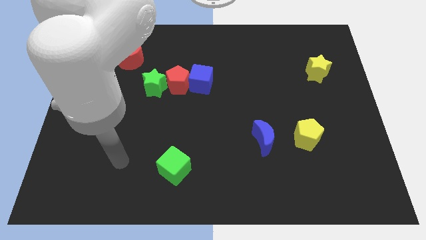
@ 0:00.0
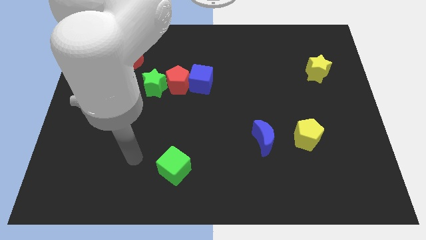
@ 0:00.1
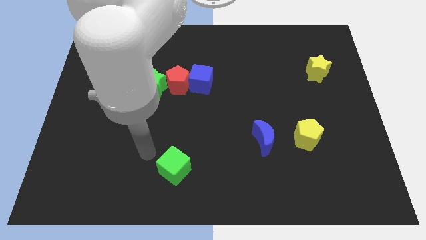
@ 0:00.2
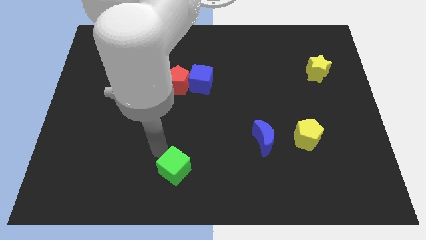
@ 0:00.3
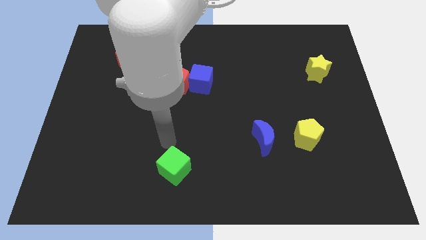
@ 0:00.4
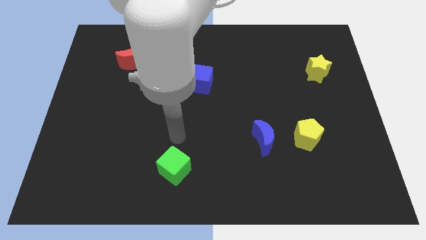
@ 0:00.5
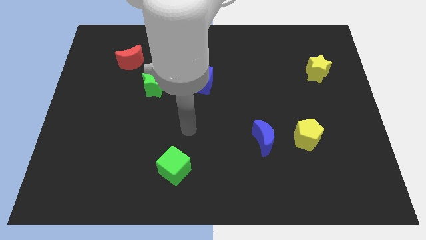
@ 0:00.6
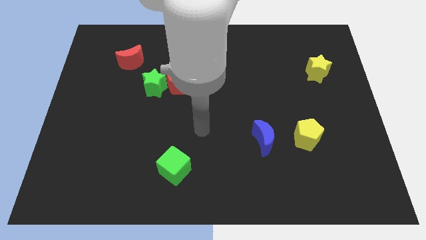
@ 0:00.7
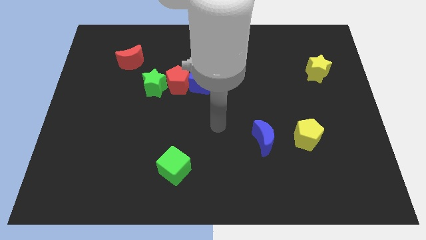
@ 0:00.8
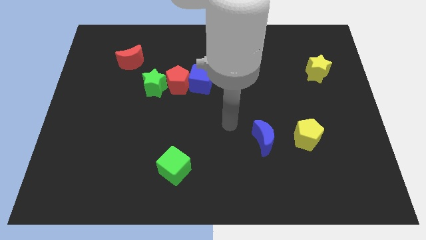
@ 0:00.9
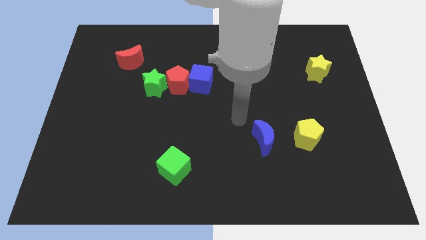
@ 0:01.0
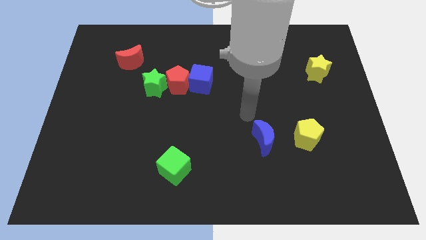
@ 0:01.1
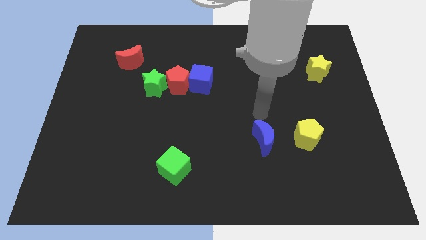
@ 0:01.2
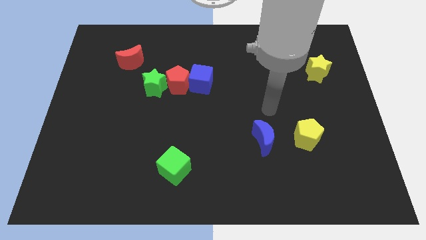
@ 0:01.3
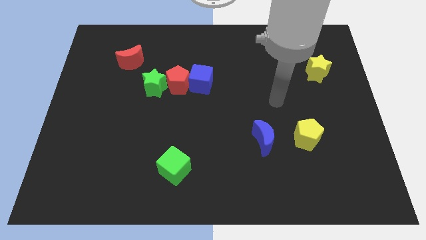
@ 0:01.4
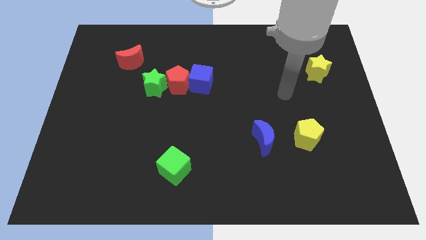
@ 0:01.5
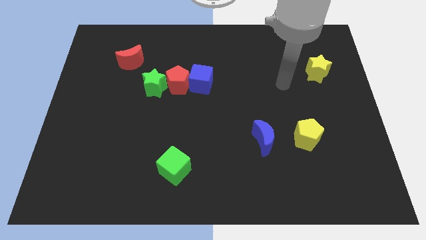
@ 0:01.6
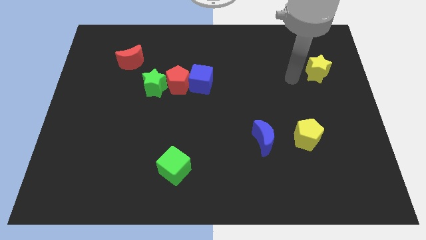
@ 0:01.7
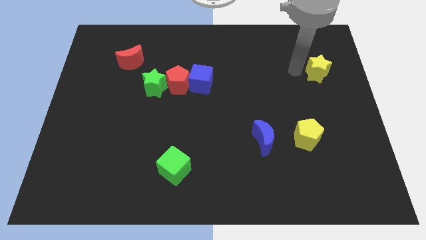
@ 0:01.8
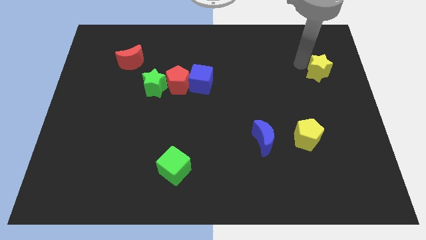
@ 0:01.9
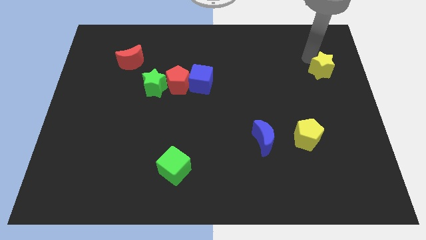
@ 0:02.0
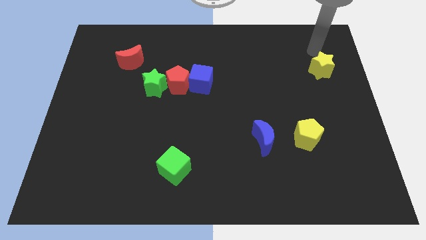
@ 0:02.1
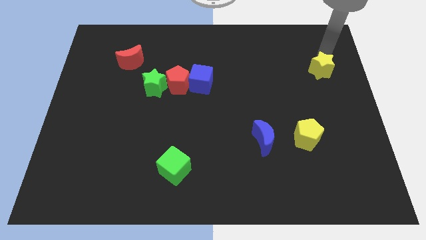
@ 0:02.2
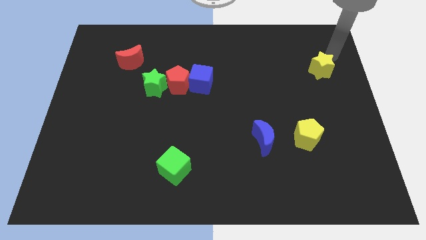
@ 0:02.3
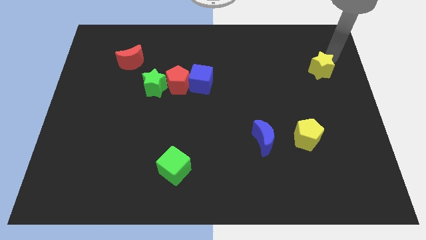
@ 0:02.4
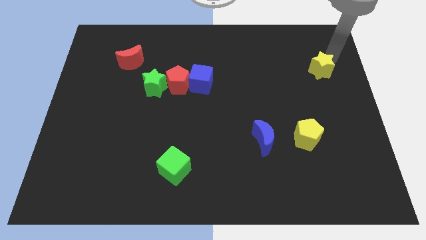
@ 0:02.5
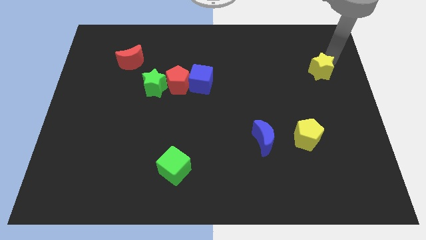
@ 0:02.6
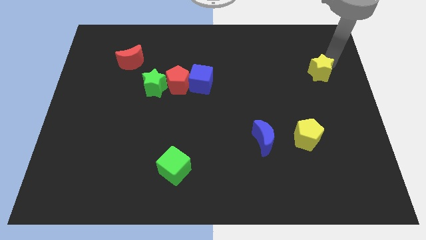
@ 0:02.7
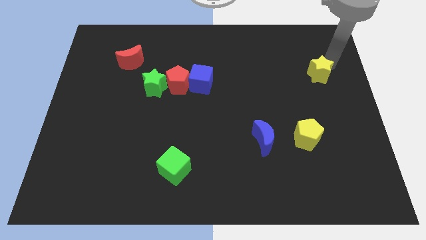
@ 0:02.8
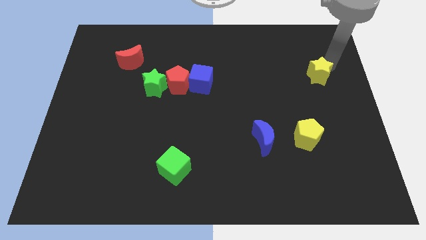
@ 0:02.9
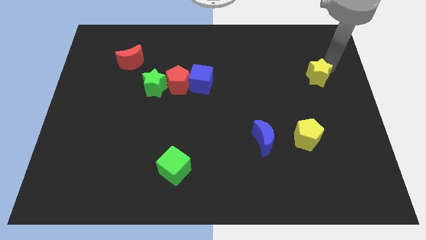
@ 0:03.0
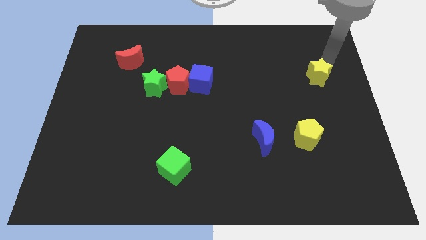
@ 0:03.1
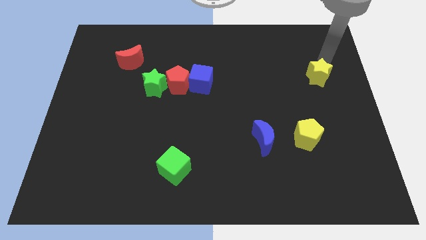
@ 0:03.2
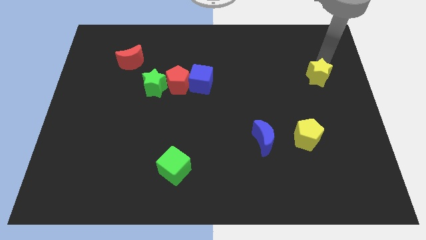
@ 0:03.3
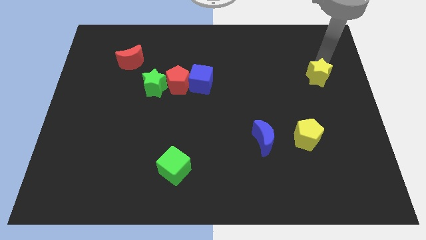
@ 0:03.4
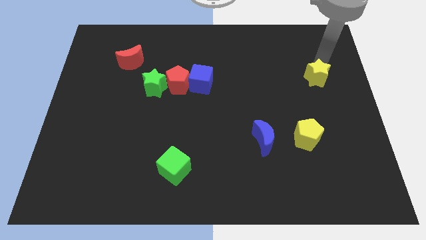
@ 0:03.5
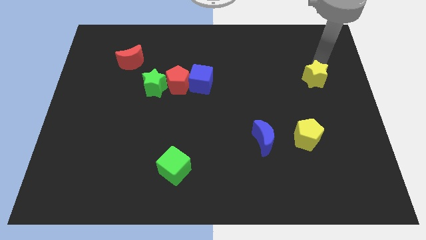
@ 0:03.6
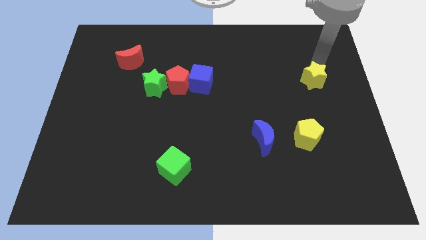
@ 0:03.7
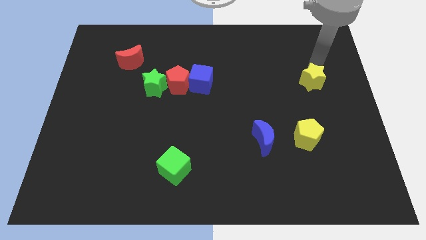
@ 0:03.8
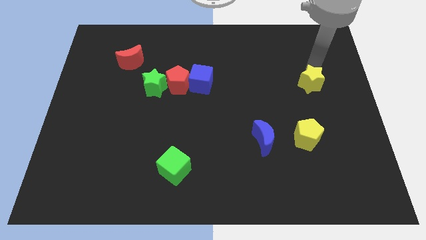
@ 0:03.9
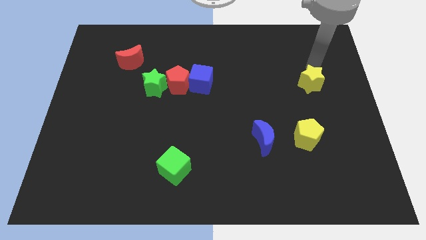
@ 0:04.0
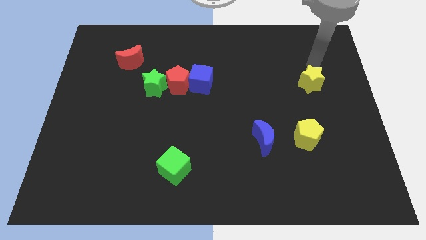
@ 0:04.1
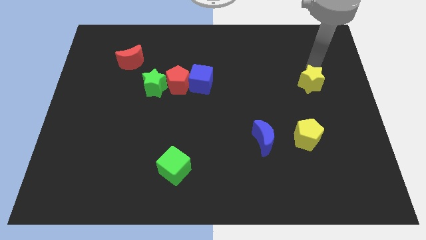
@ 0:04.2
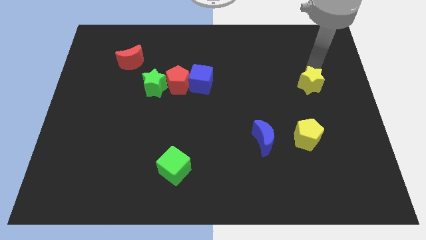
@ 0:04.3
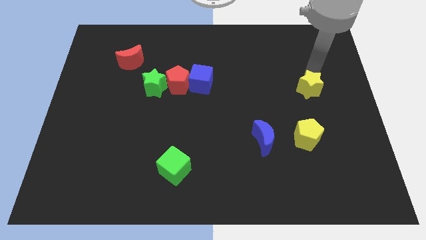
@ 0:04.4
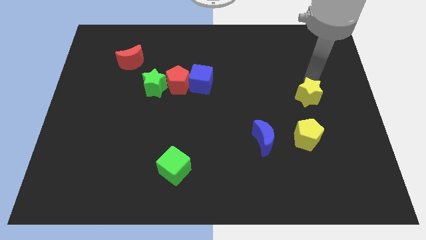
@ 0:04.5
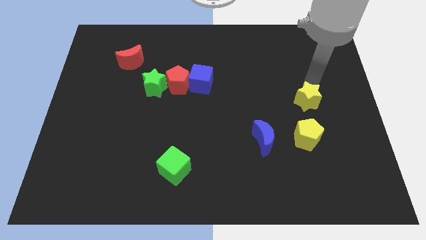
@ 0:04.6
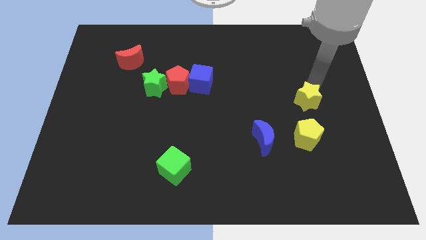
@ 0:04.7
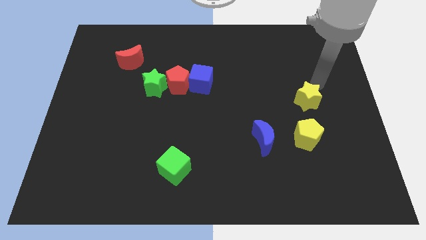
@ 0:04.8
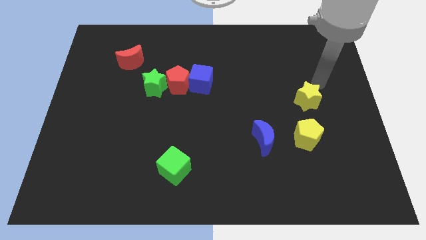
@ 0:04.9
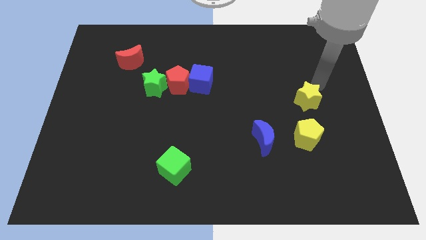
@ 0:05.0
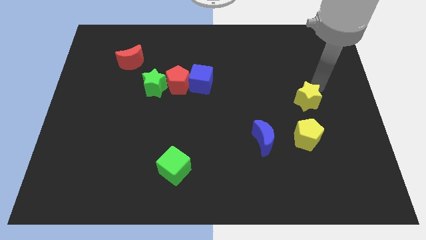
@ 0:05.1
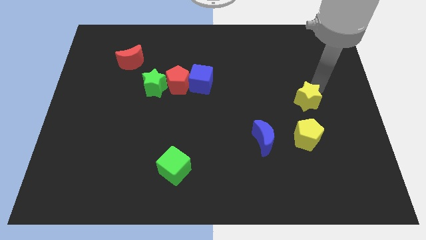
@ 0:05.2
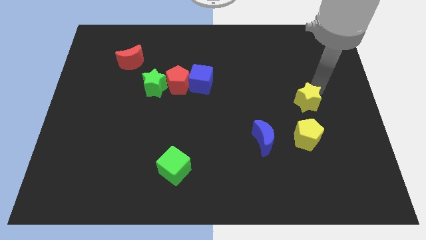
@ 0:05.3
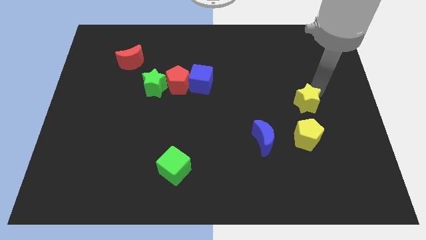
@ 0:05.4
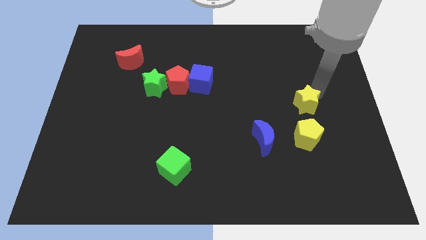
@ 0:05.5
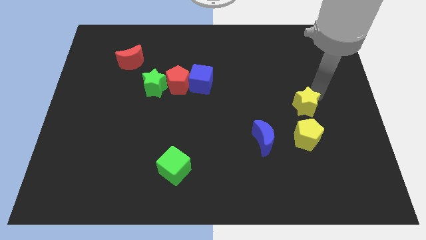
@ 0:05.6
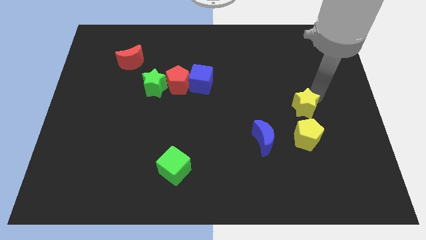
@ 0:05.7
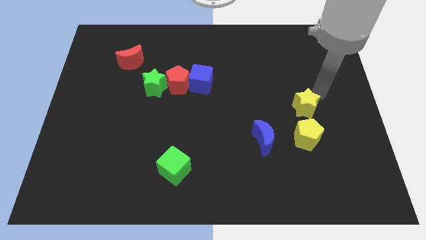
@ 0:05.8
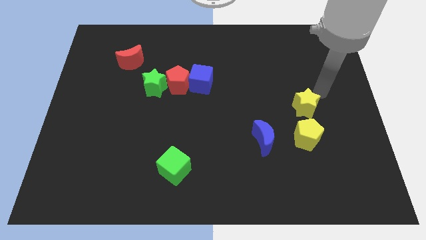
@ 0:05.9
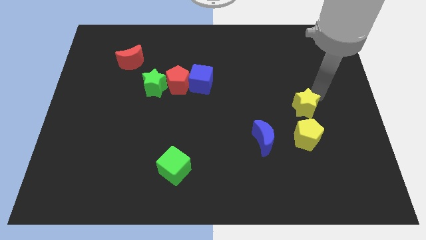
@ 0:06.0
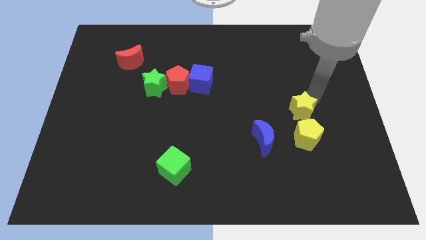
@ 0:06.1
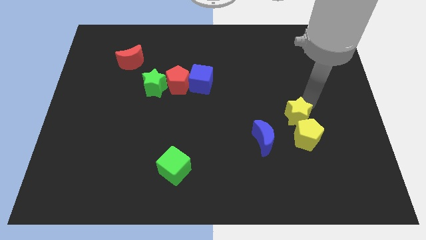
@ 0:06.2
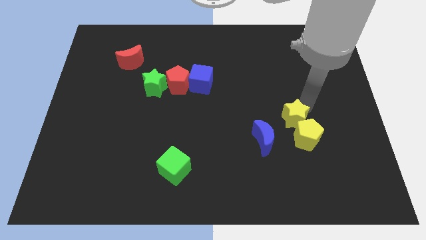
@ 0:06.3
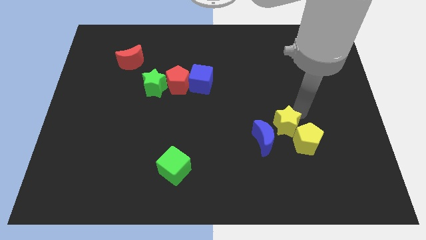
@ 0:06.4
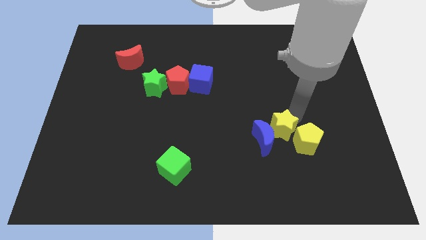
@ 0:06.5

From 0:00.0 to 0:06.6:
push the yellow star next to the blue moon
